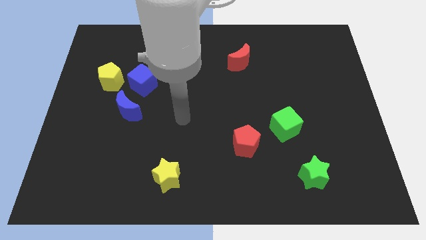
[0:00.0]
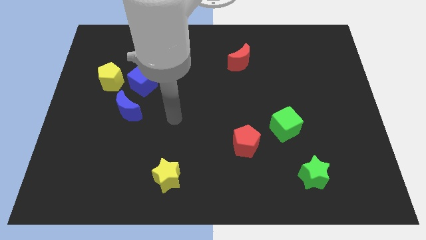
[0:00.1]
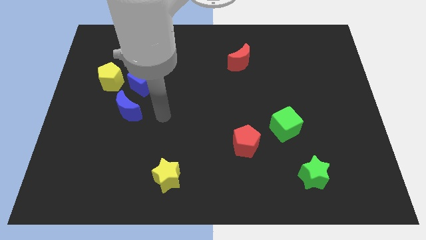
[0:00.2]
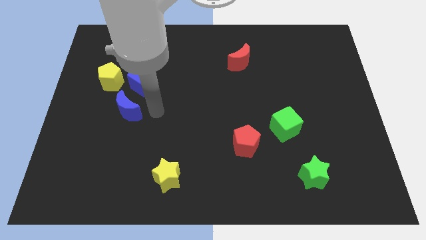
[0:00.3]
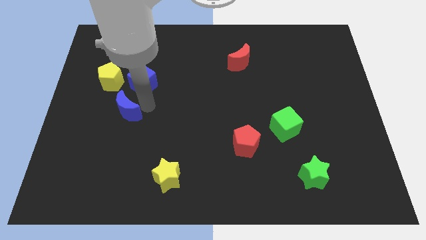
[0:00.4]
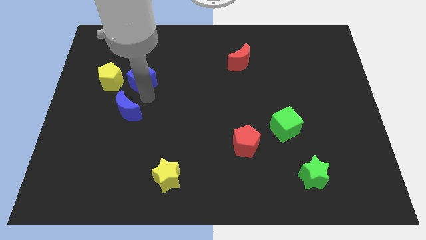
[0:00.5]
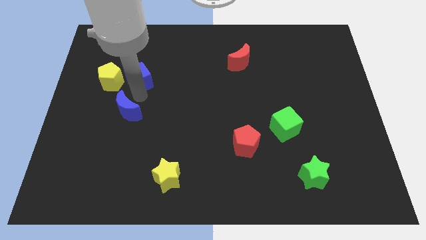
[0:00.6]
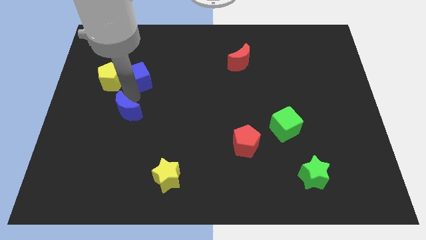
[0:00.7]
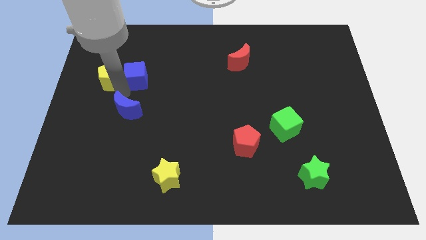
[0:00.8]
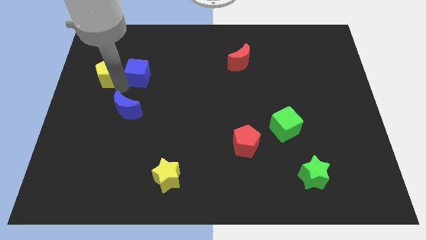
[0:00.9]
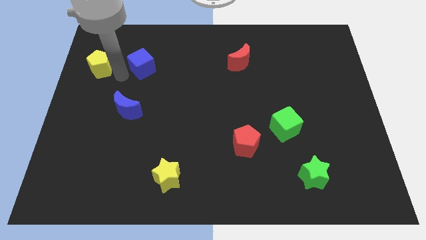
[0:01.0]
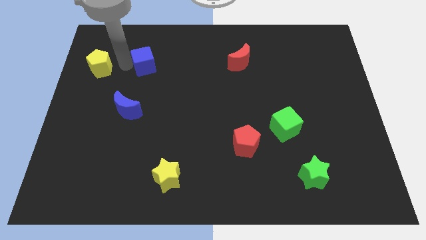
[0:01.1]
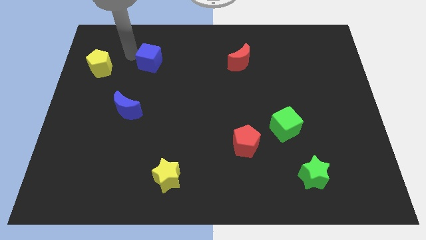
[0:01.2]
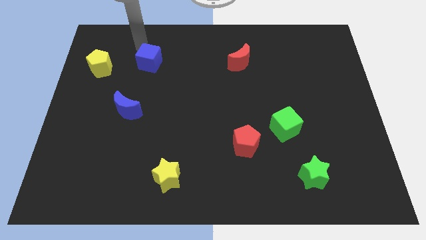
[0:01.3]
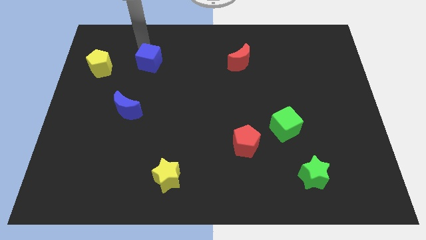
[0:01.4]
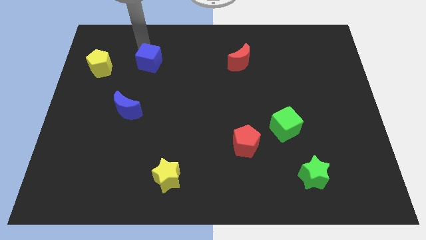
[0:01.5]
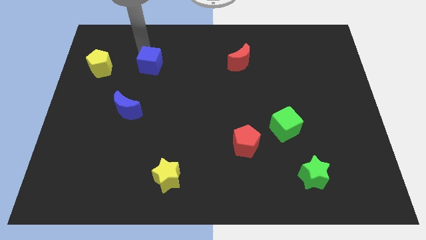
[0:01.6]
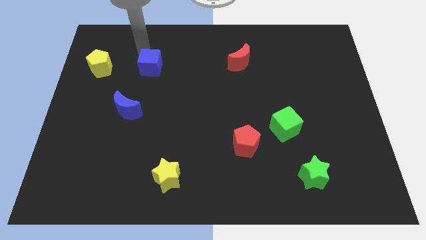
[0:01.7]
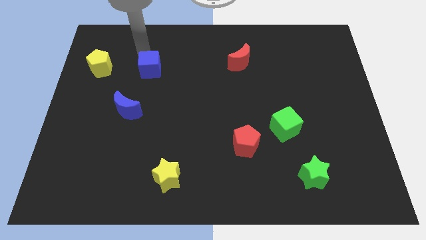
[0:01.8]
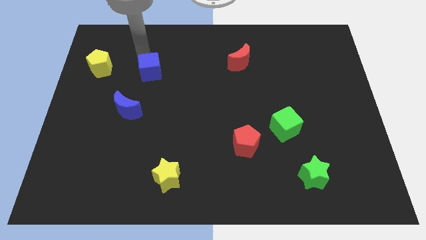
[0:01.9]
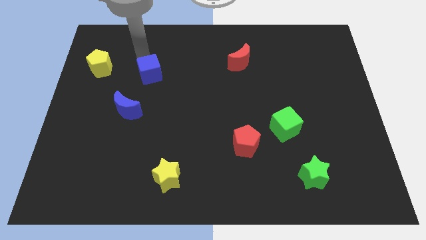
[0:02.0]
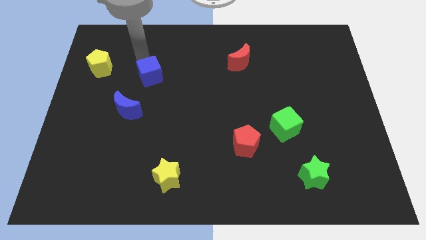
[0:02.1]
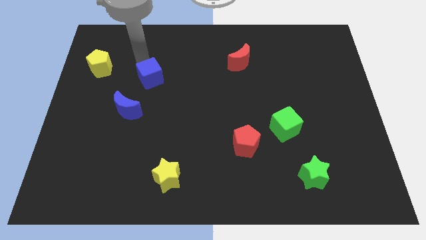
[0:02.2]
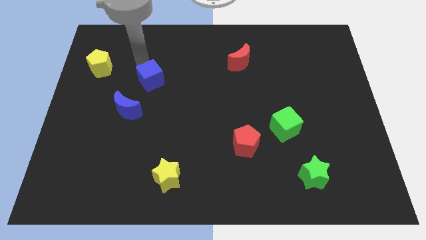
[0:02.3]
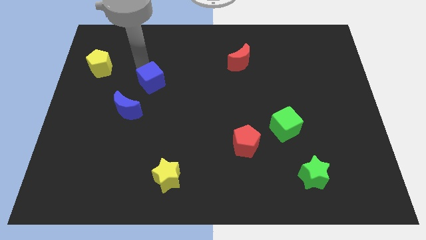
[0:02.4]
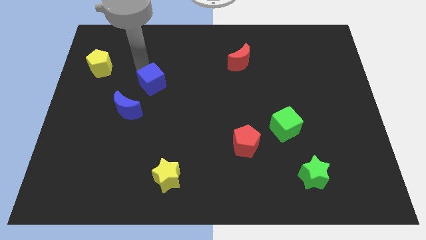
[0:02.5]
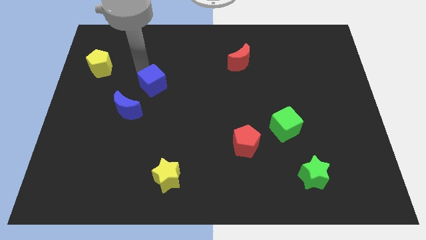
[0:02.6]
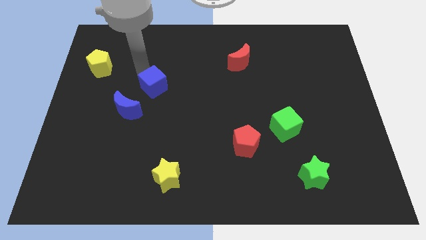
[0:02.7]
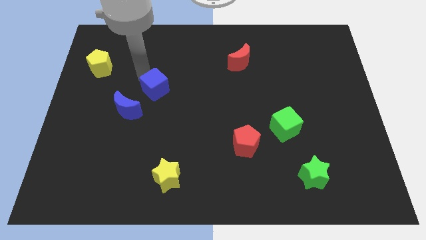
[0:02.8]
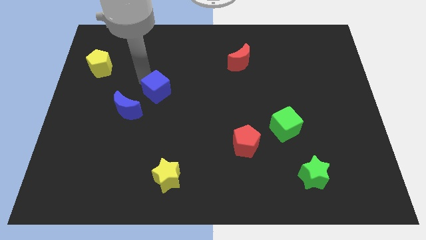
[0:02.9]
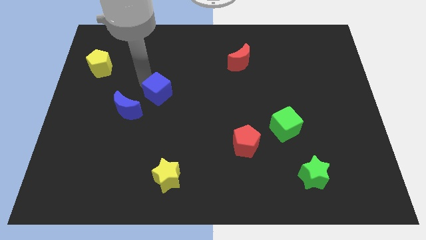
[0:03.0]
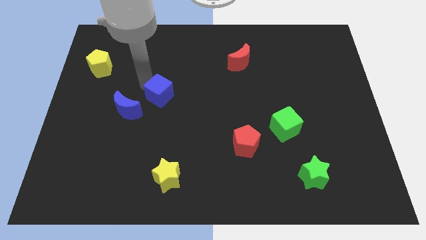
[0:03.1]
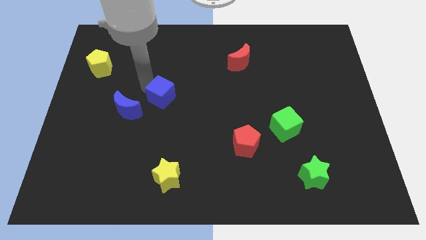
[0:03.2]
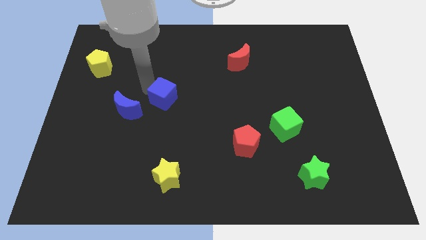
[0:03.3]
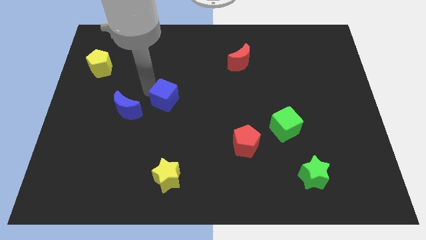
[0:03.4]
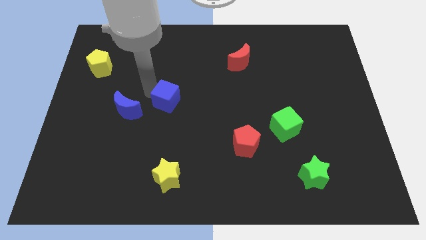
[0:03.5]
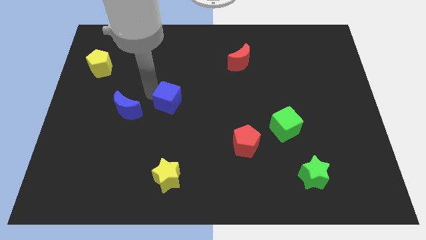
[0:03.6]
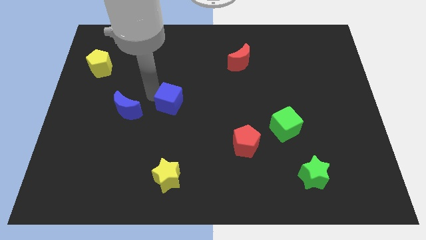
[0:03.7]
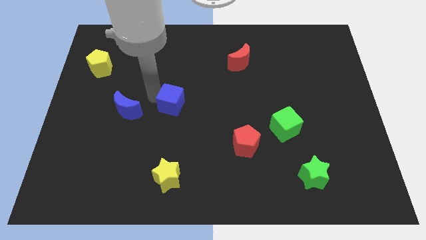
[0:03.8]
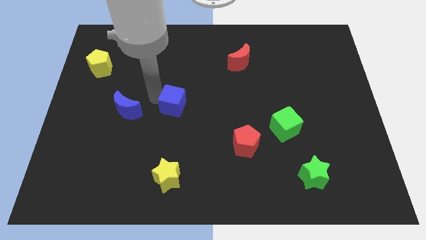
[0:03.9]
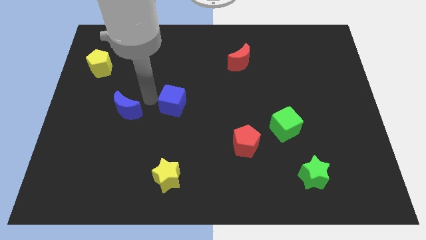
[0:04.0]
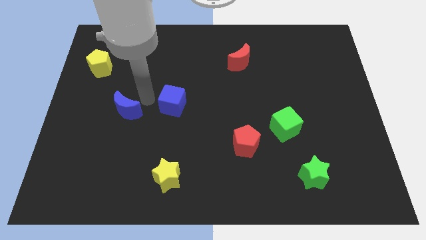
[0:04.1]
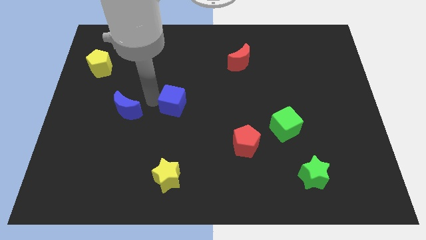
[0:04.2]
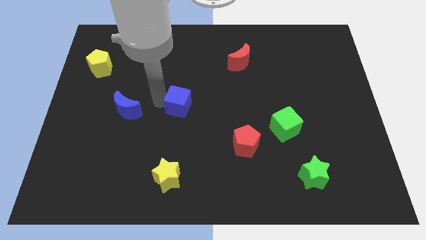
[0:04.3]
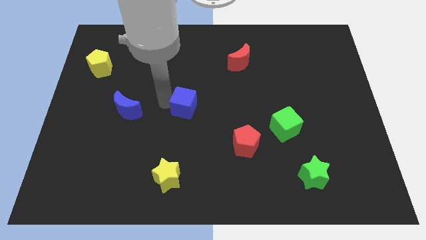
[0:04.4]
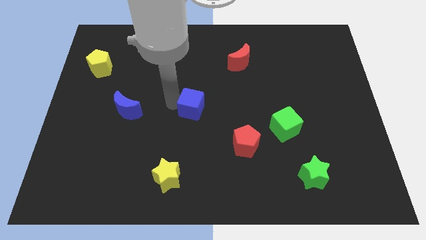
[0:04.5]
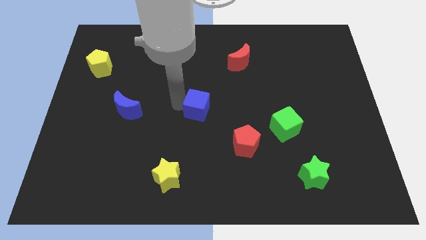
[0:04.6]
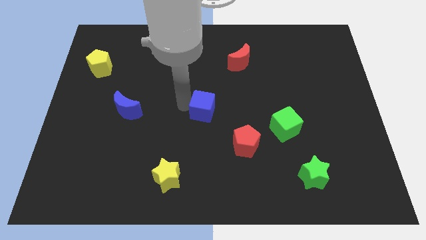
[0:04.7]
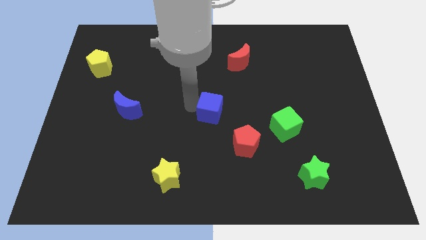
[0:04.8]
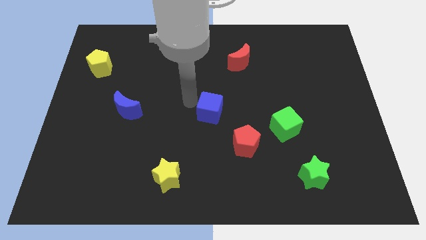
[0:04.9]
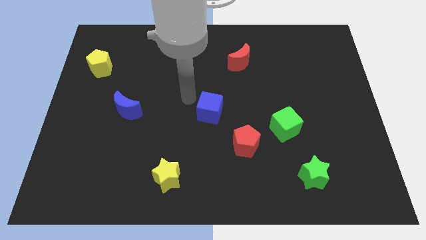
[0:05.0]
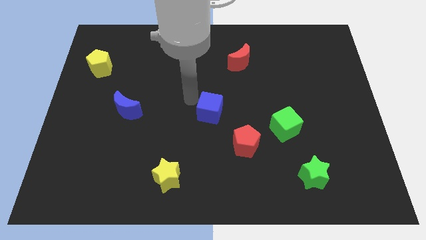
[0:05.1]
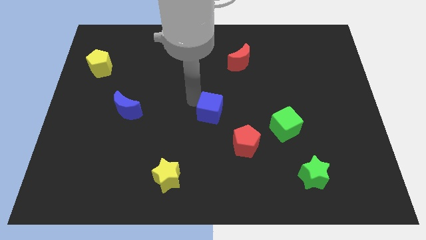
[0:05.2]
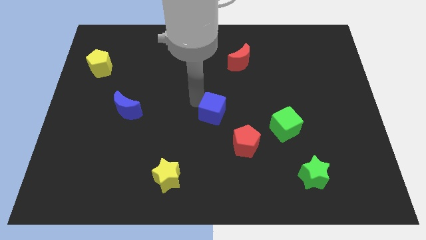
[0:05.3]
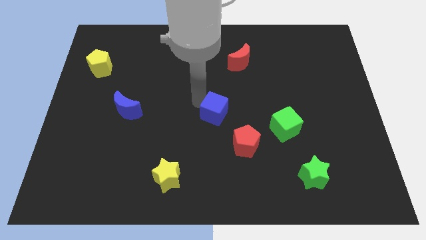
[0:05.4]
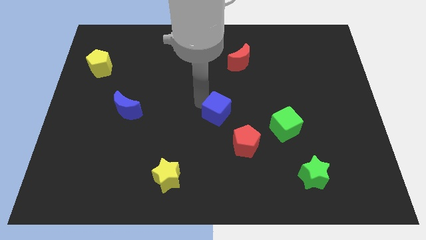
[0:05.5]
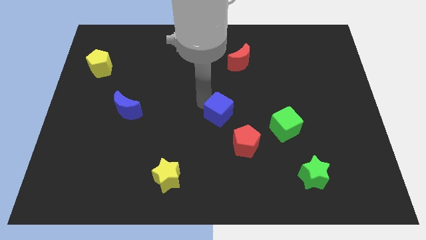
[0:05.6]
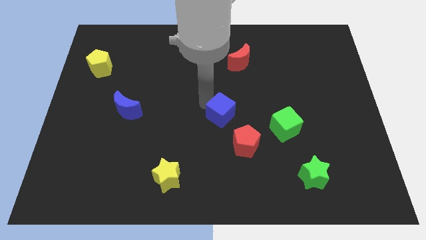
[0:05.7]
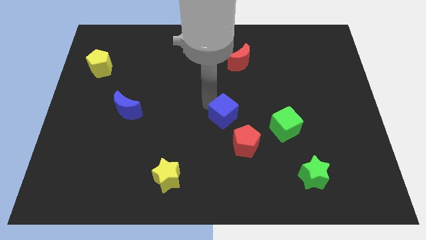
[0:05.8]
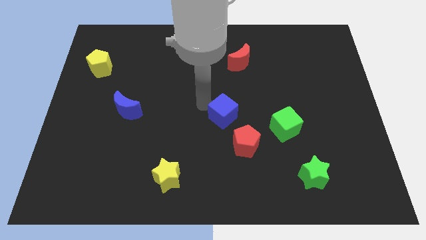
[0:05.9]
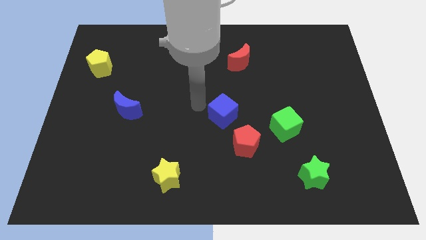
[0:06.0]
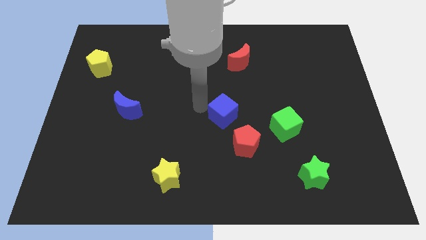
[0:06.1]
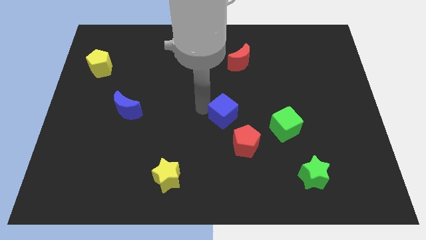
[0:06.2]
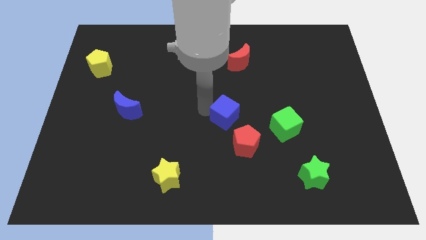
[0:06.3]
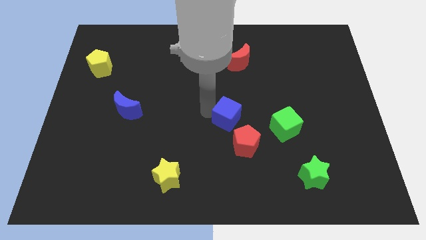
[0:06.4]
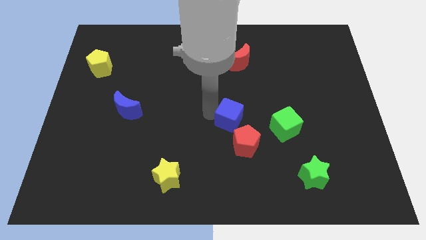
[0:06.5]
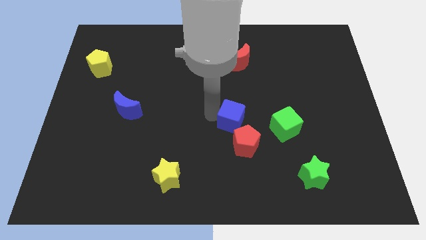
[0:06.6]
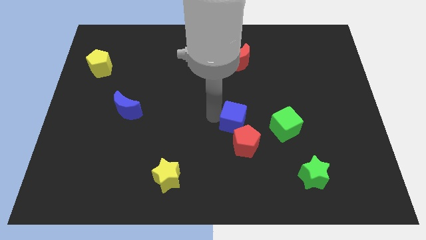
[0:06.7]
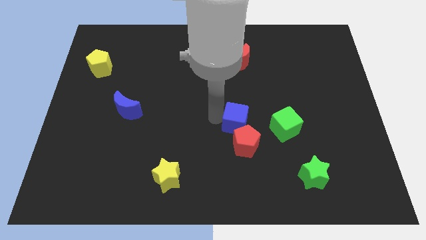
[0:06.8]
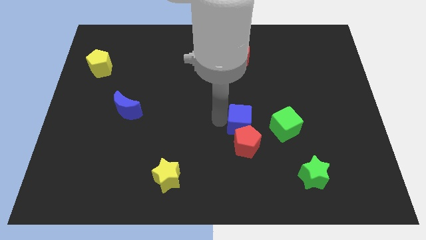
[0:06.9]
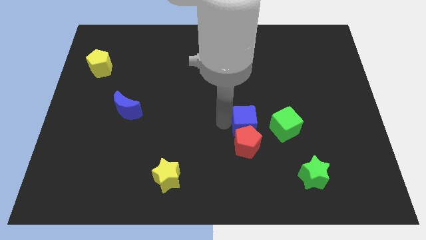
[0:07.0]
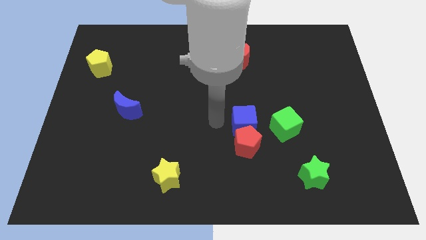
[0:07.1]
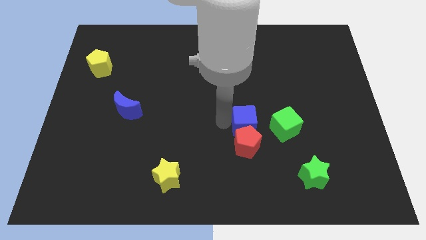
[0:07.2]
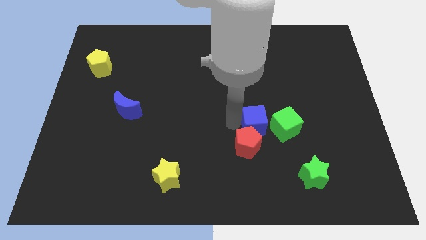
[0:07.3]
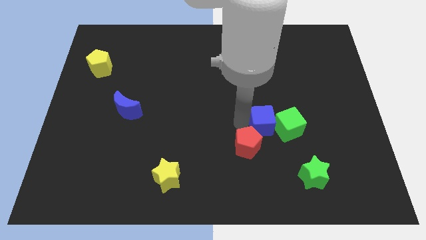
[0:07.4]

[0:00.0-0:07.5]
put the blue cube next to the green cube
